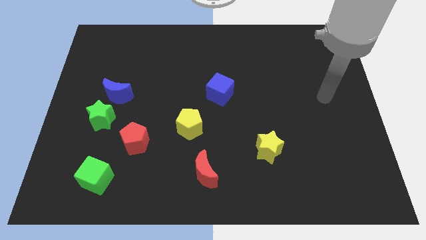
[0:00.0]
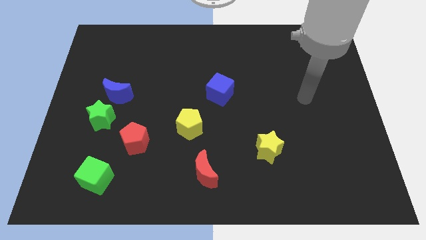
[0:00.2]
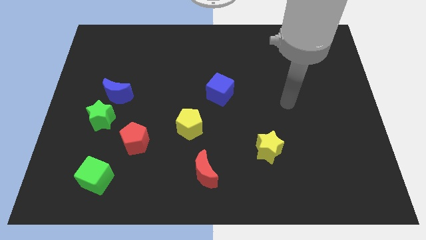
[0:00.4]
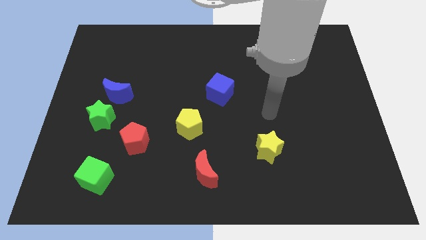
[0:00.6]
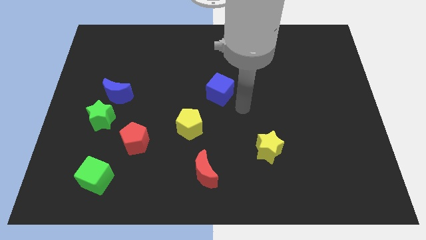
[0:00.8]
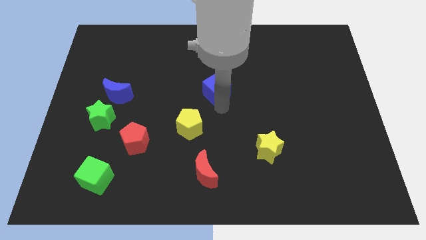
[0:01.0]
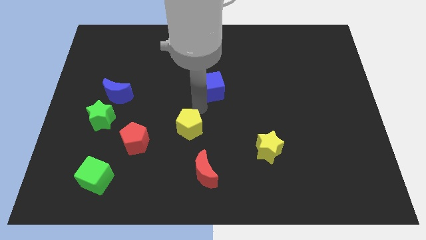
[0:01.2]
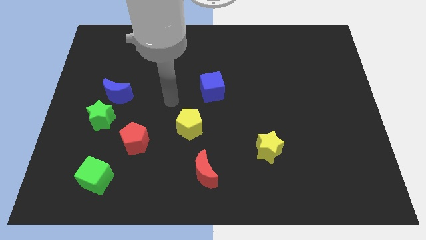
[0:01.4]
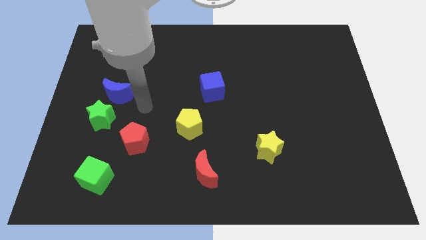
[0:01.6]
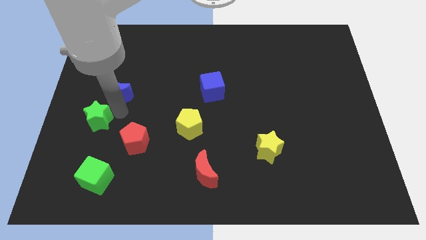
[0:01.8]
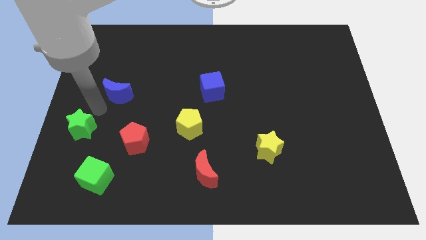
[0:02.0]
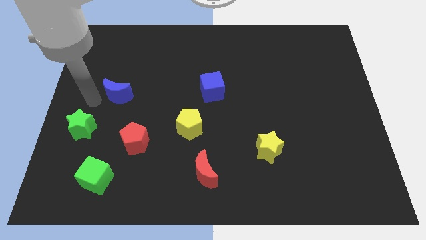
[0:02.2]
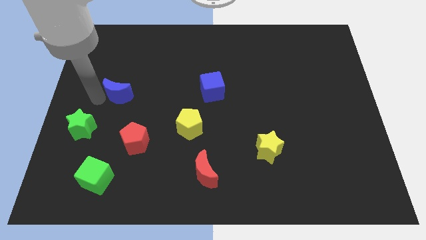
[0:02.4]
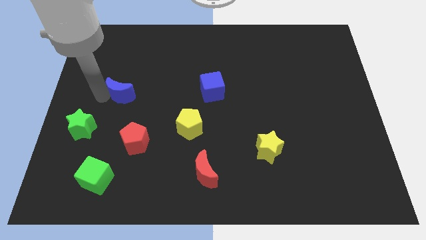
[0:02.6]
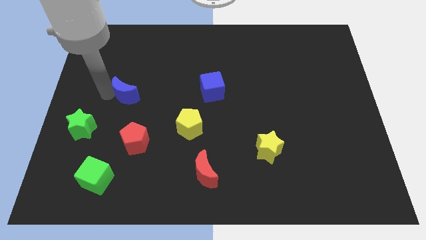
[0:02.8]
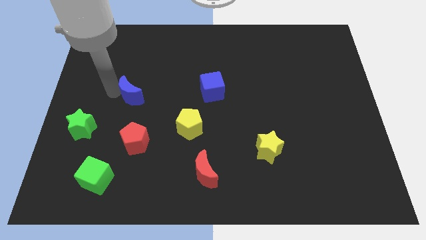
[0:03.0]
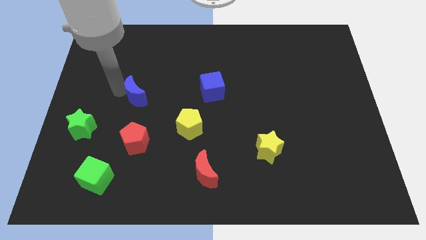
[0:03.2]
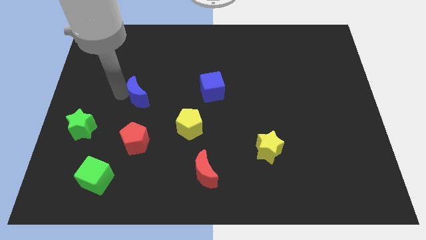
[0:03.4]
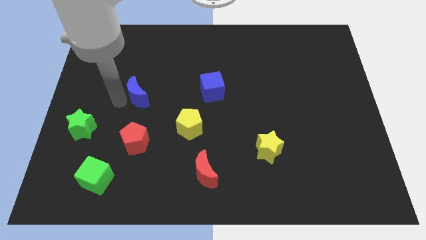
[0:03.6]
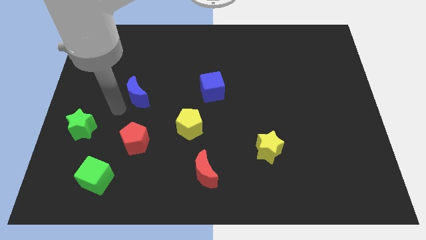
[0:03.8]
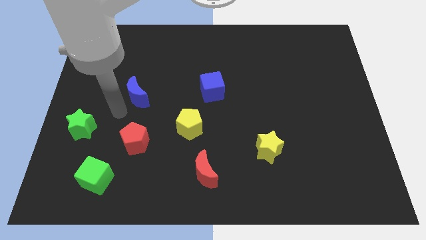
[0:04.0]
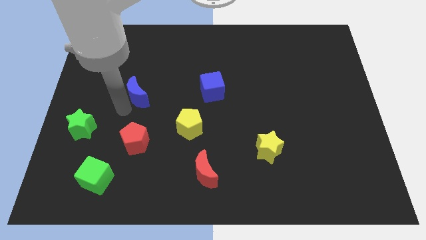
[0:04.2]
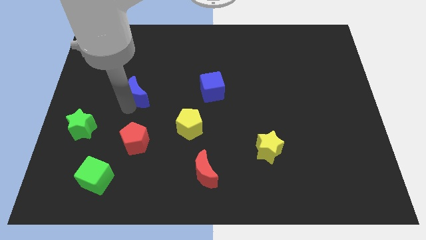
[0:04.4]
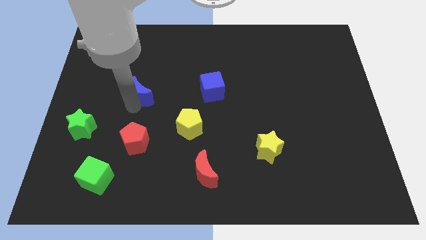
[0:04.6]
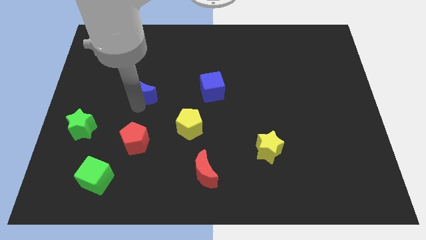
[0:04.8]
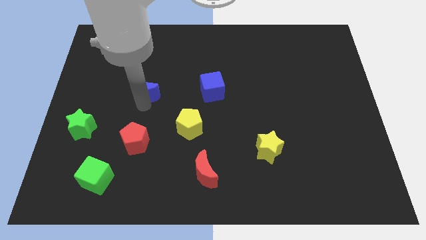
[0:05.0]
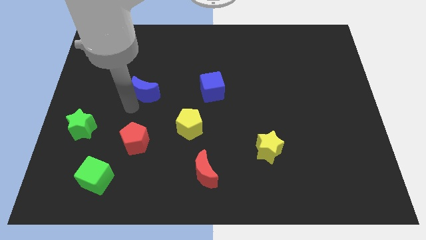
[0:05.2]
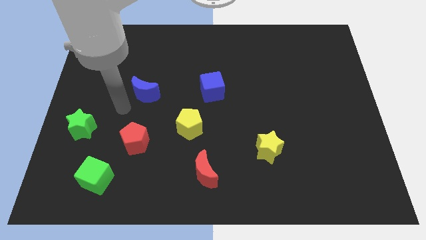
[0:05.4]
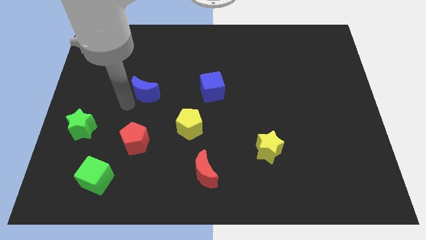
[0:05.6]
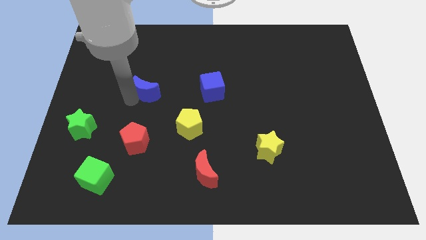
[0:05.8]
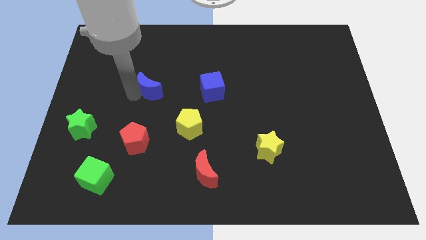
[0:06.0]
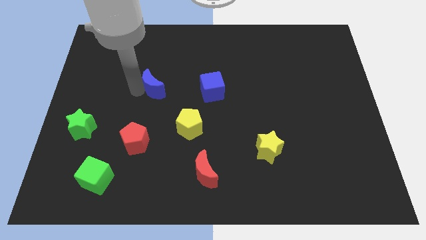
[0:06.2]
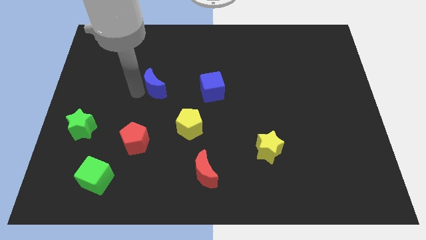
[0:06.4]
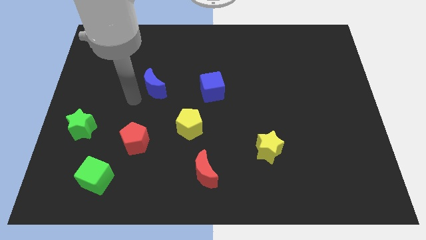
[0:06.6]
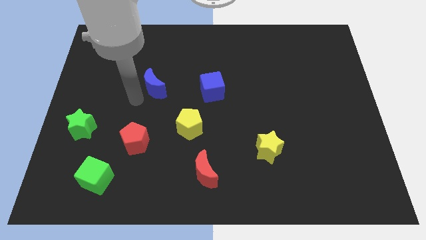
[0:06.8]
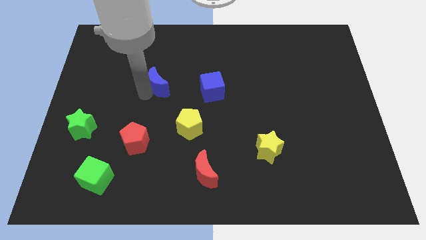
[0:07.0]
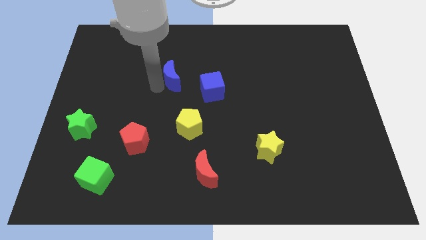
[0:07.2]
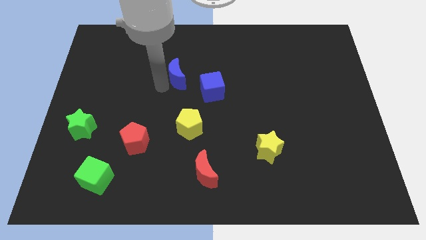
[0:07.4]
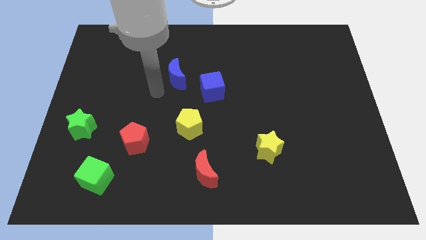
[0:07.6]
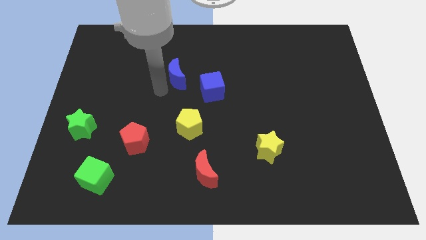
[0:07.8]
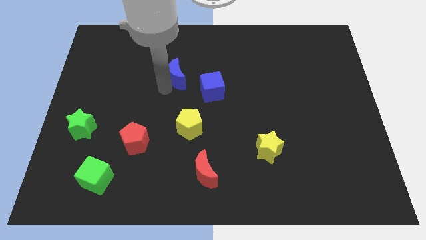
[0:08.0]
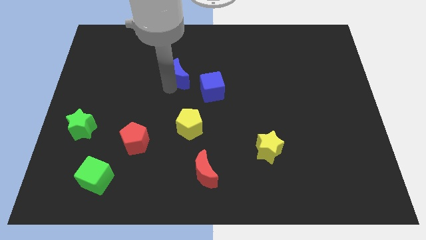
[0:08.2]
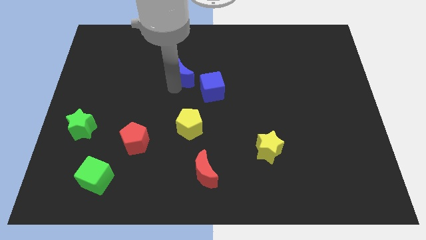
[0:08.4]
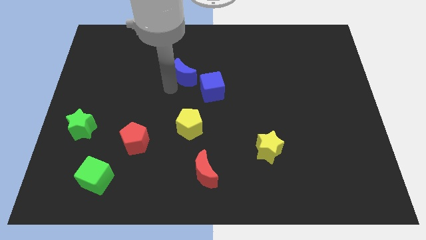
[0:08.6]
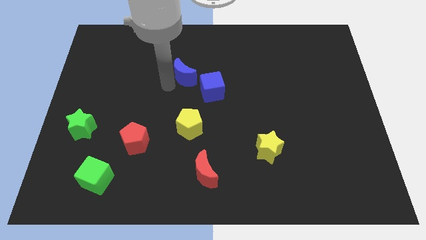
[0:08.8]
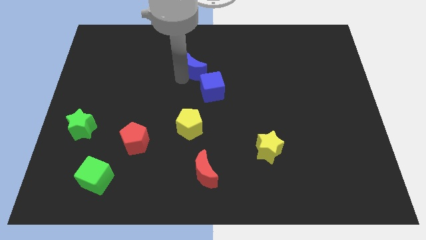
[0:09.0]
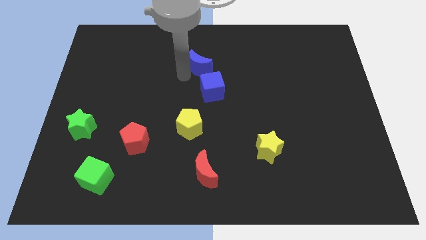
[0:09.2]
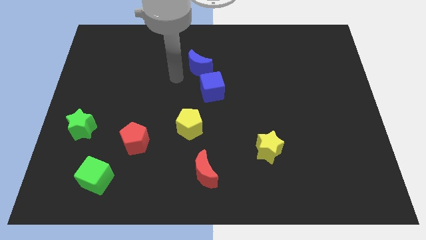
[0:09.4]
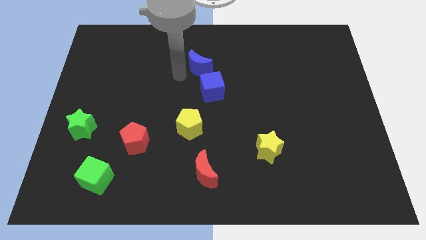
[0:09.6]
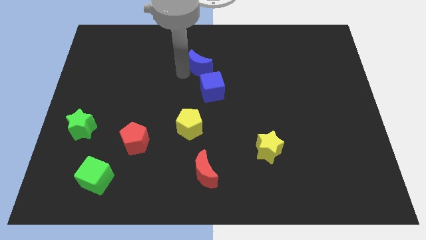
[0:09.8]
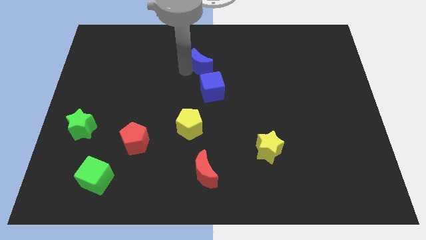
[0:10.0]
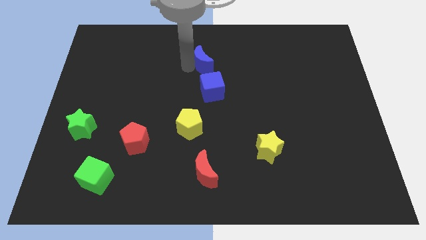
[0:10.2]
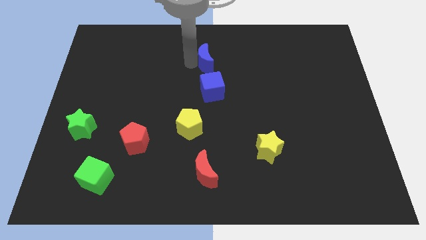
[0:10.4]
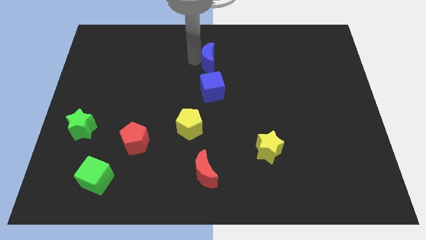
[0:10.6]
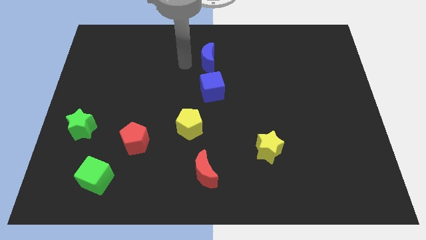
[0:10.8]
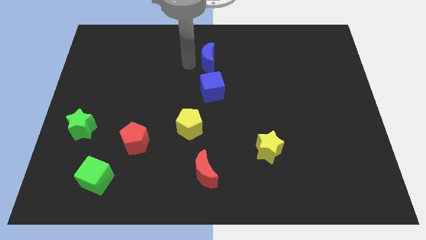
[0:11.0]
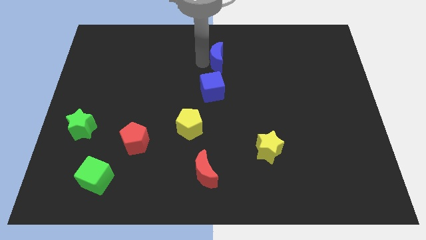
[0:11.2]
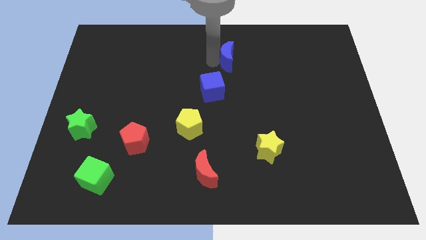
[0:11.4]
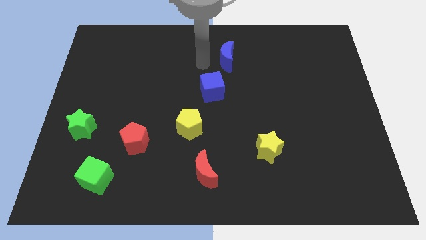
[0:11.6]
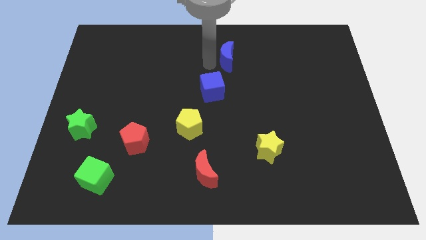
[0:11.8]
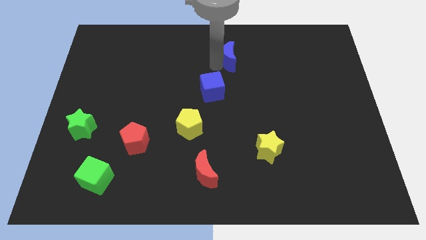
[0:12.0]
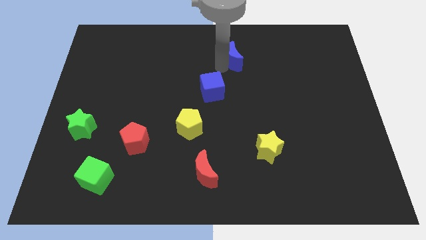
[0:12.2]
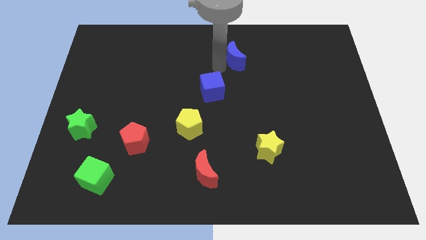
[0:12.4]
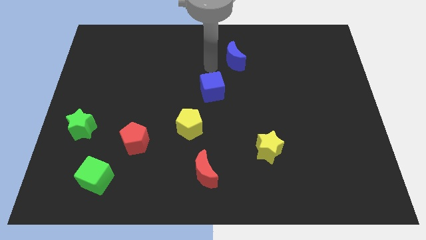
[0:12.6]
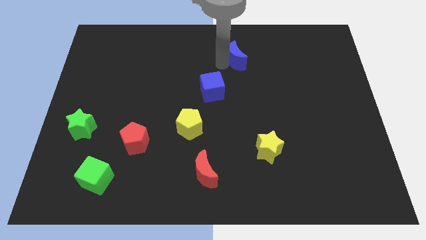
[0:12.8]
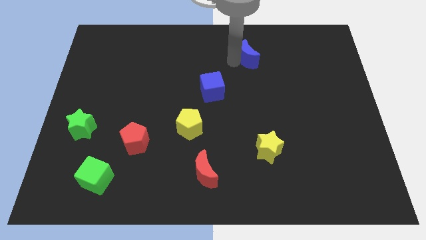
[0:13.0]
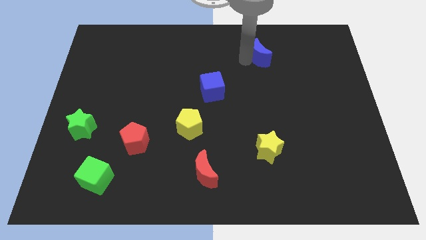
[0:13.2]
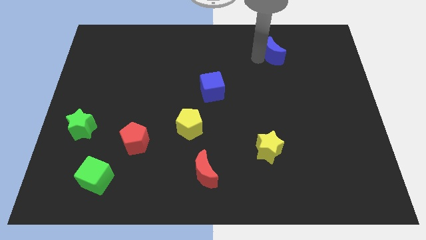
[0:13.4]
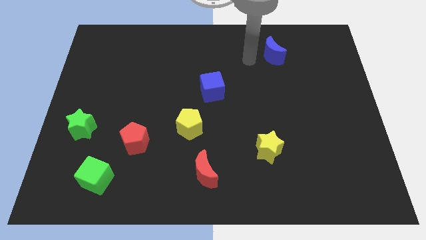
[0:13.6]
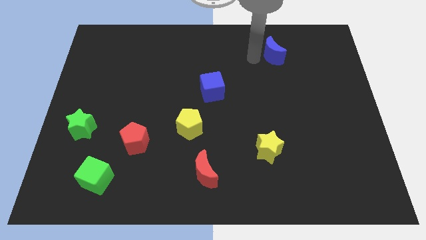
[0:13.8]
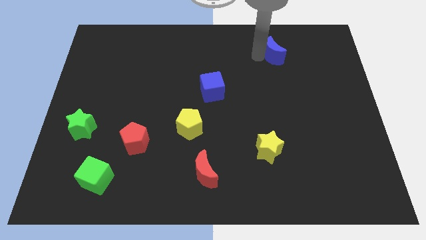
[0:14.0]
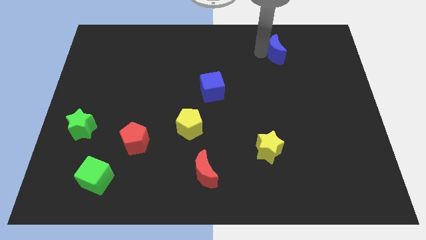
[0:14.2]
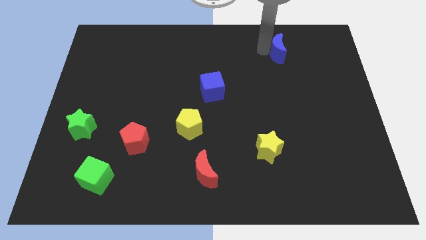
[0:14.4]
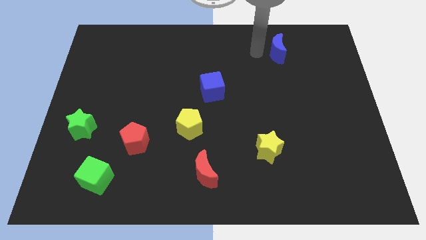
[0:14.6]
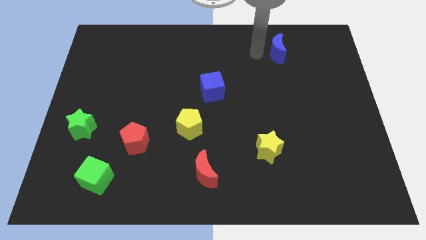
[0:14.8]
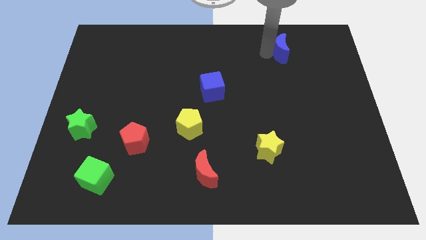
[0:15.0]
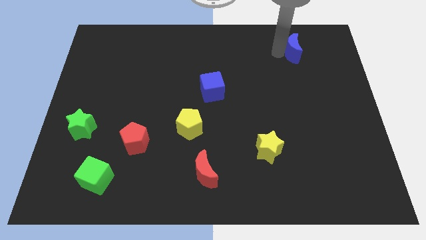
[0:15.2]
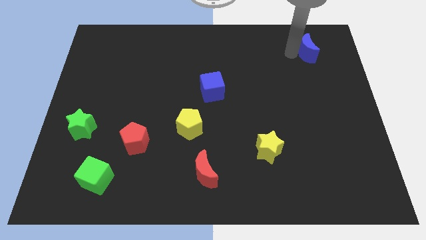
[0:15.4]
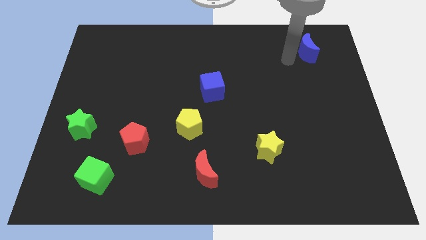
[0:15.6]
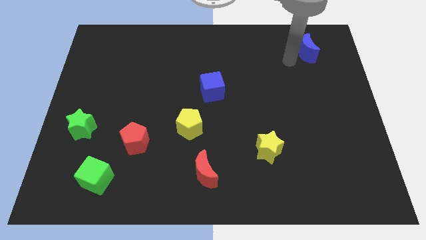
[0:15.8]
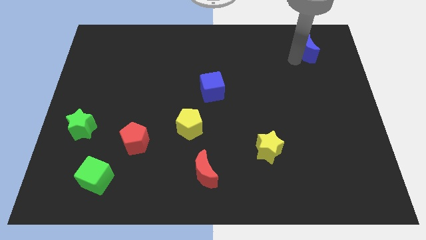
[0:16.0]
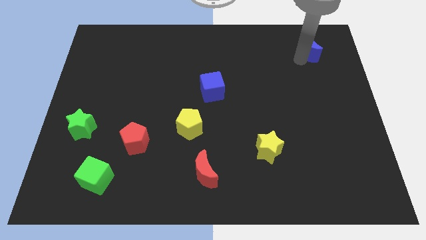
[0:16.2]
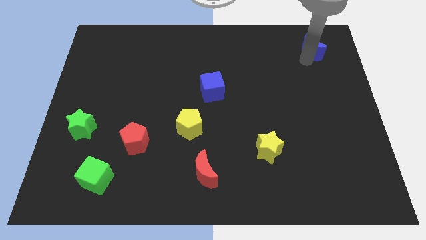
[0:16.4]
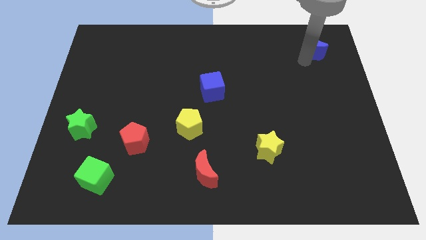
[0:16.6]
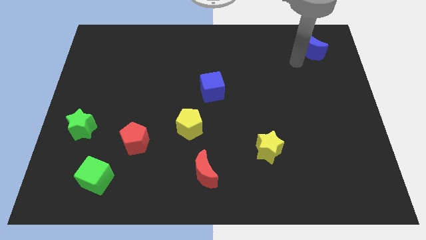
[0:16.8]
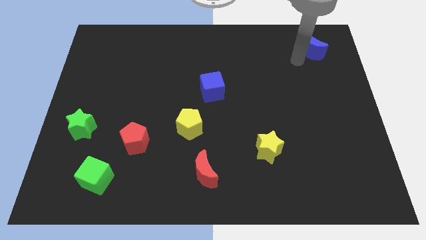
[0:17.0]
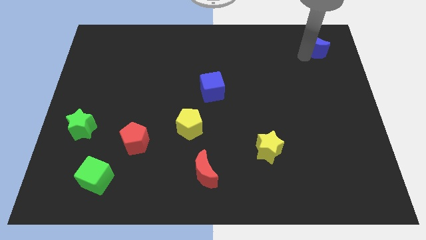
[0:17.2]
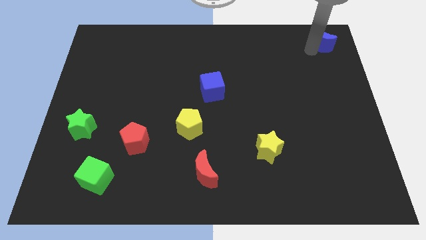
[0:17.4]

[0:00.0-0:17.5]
move the blue moon to the top right
